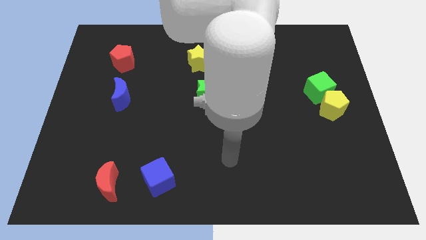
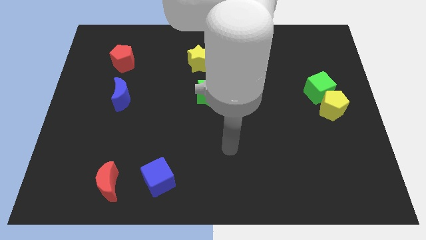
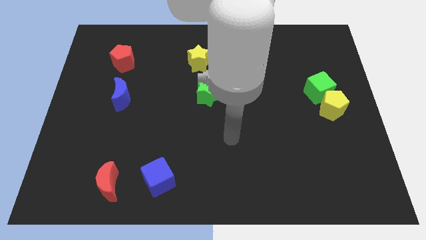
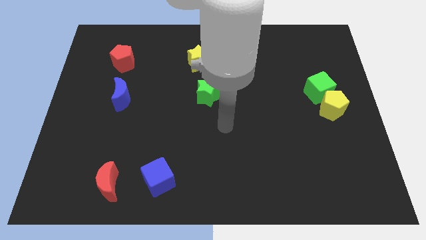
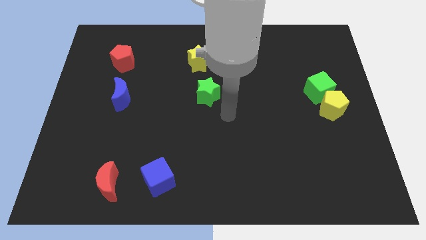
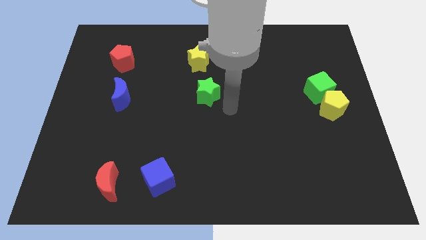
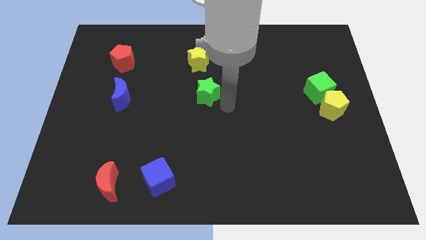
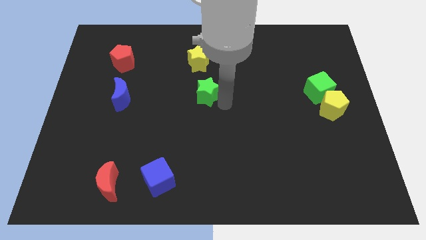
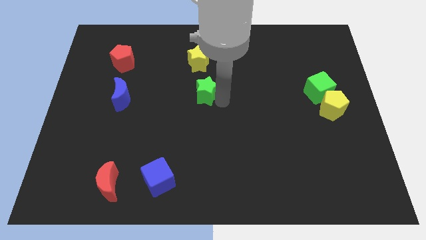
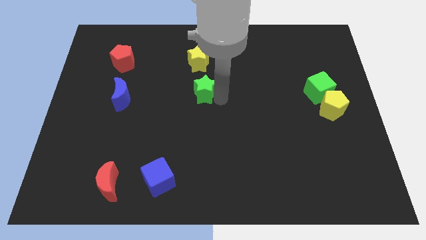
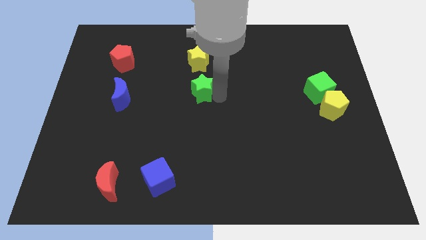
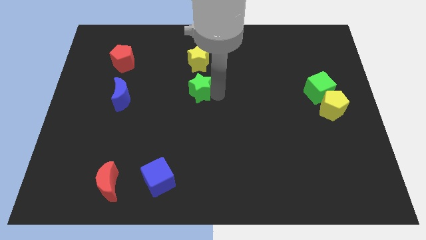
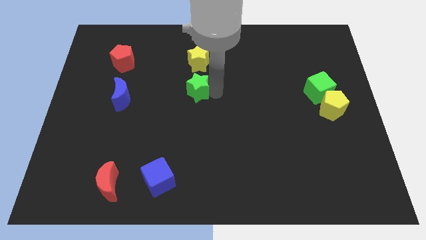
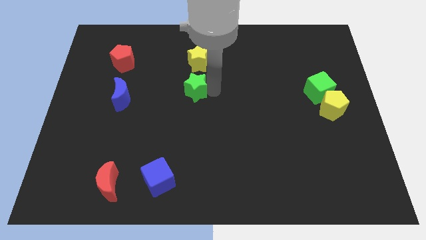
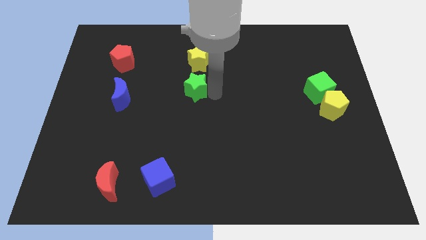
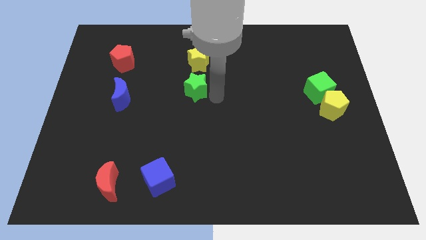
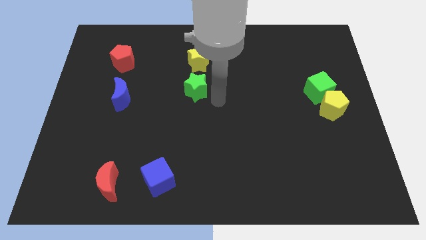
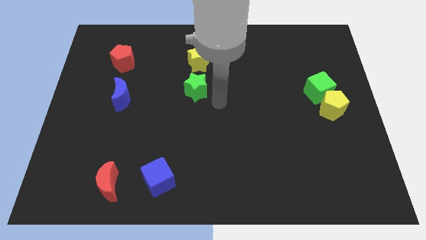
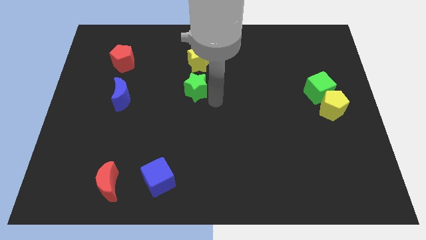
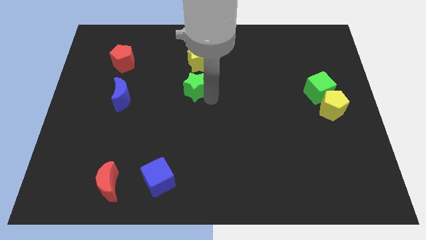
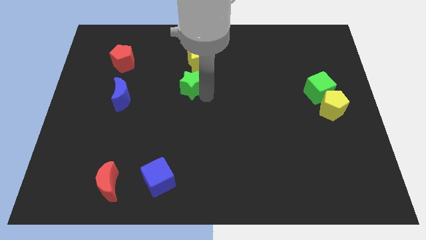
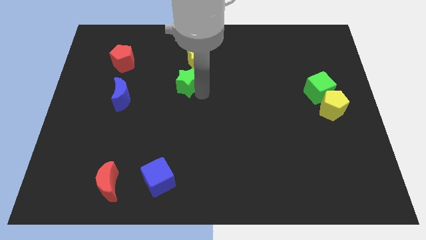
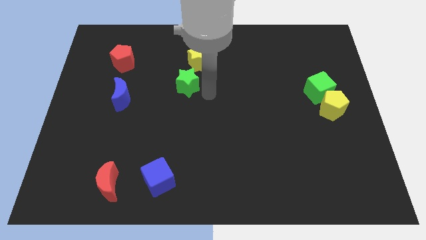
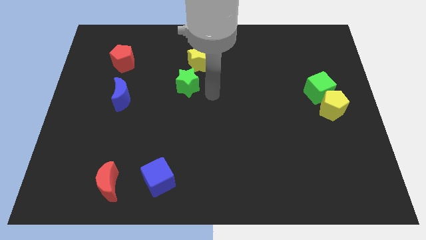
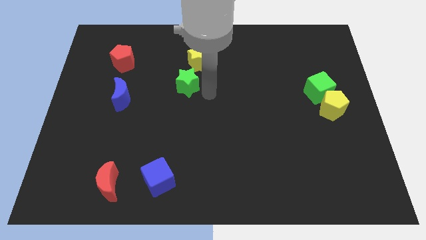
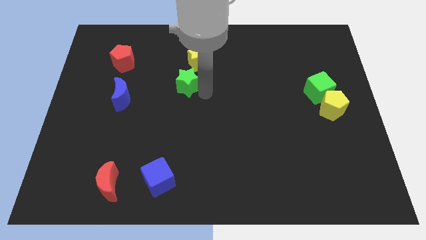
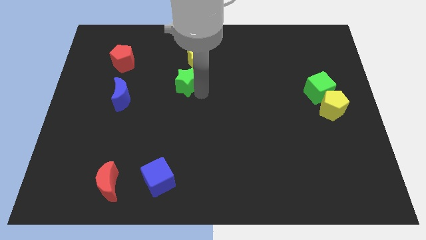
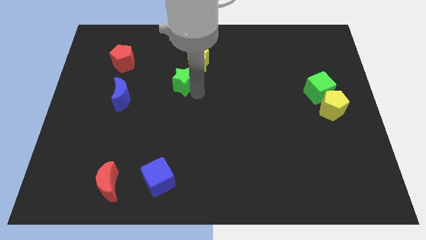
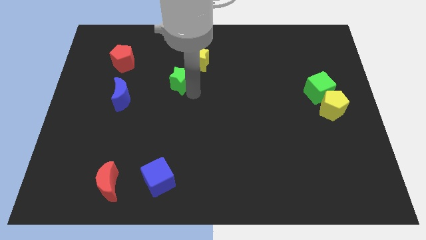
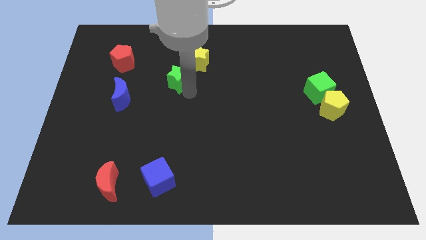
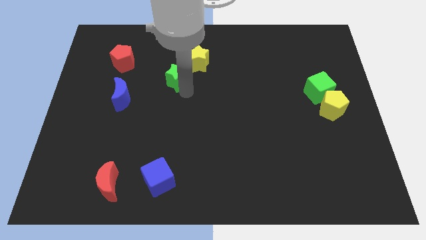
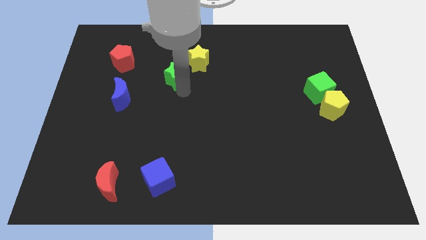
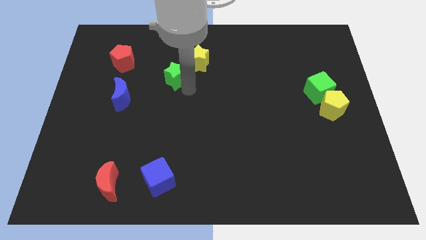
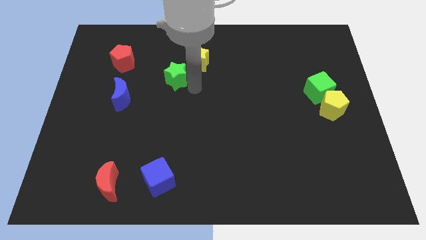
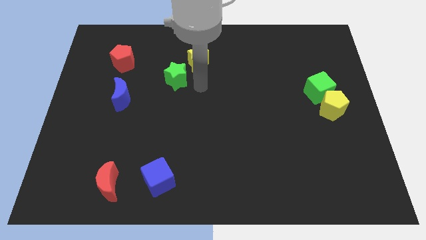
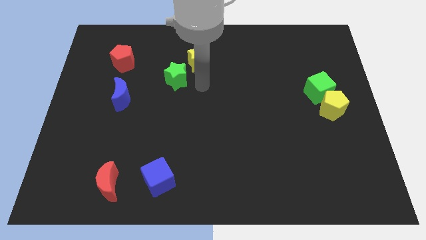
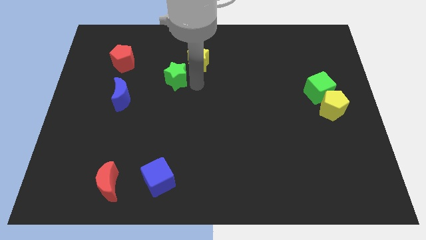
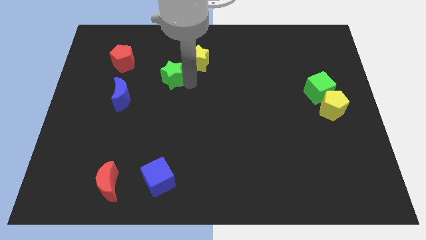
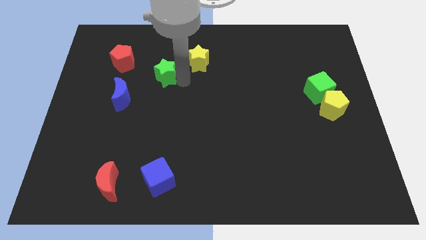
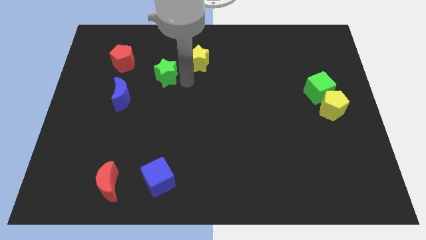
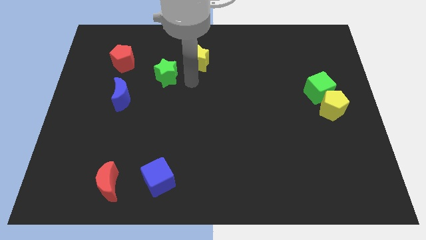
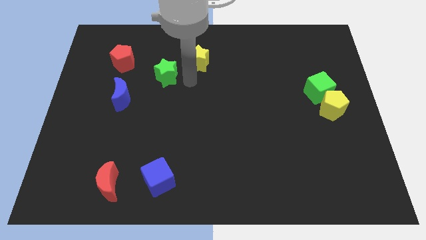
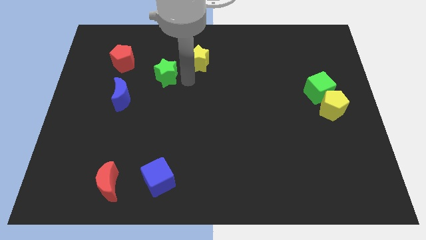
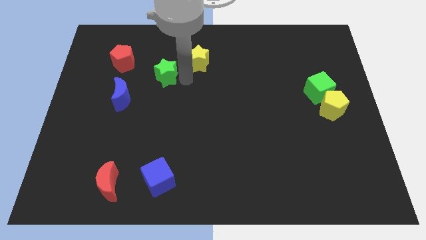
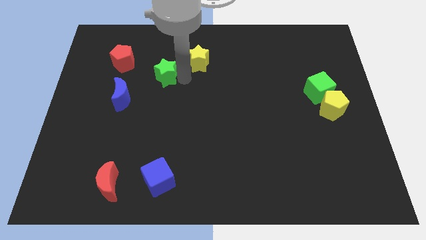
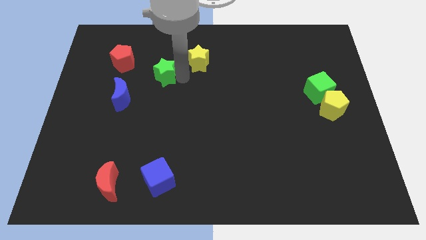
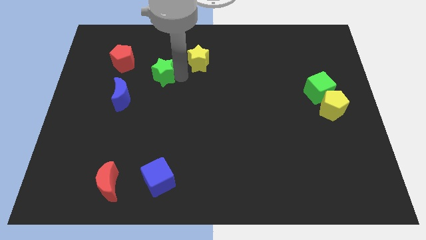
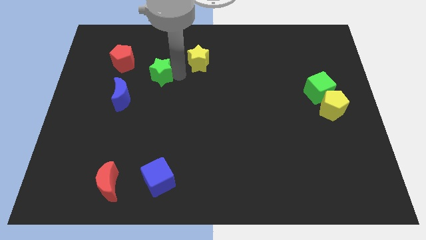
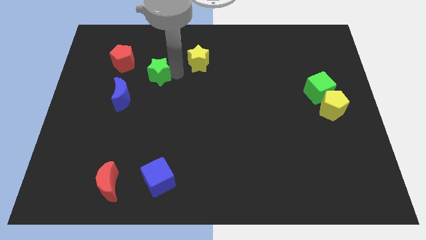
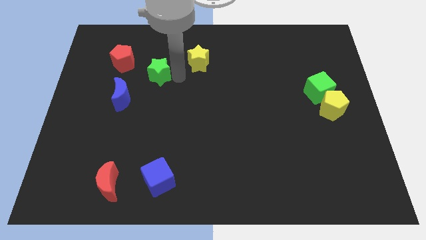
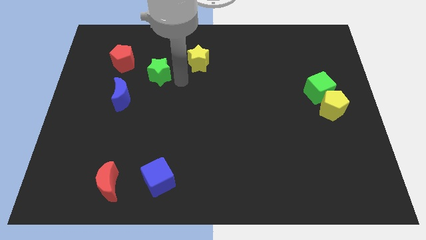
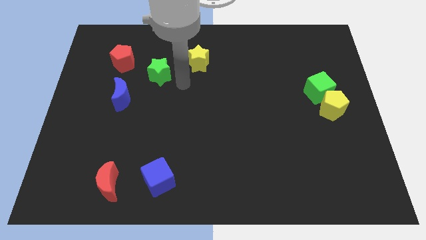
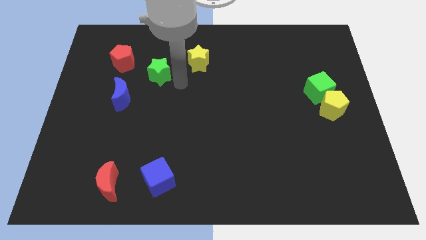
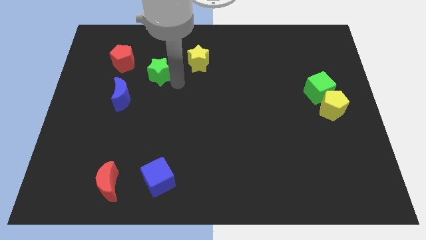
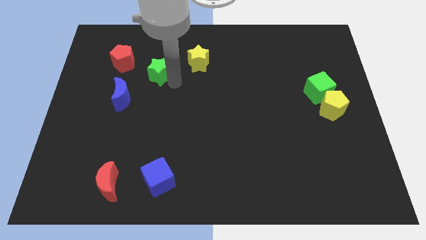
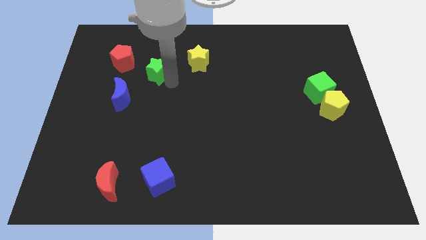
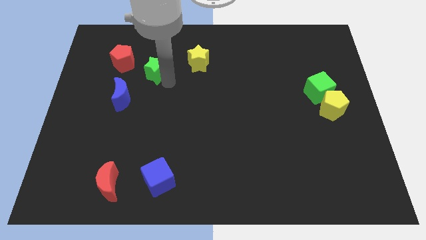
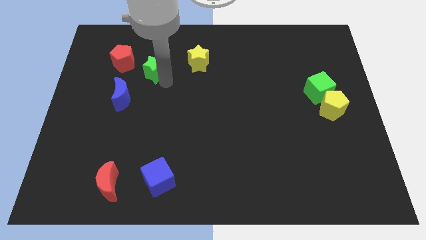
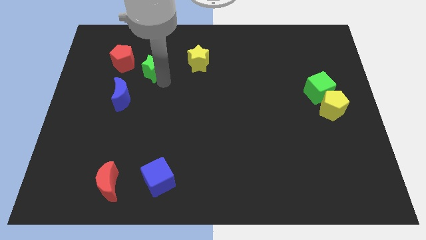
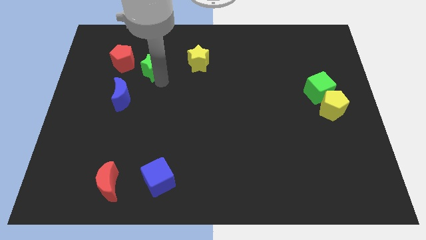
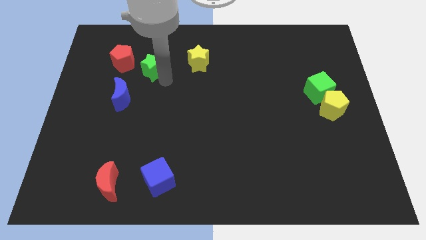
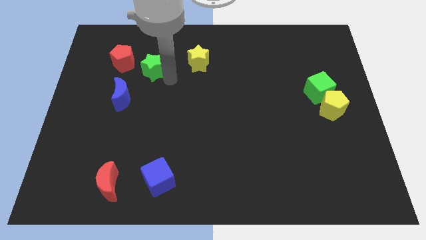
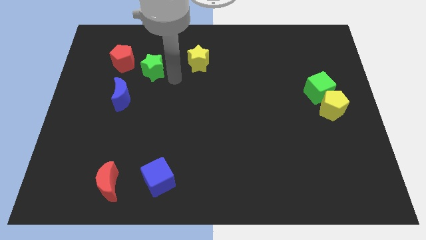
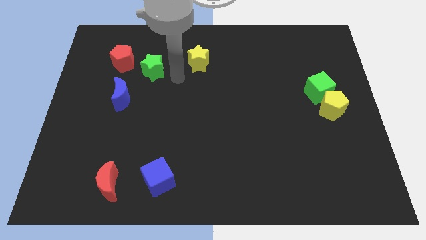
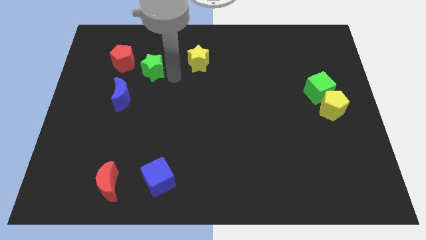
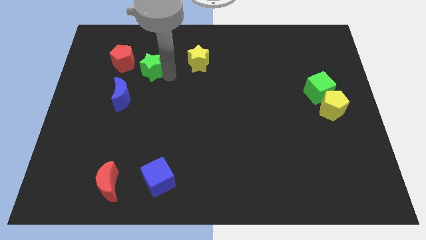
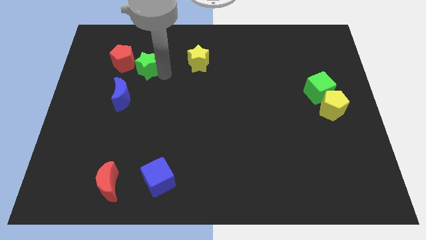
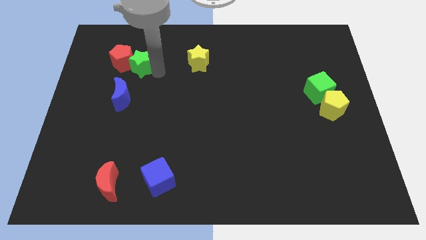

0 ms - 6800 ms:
move the green star towards the red pentagon

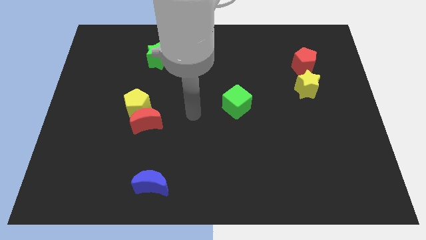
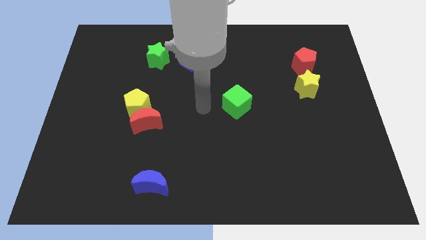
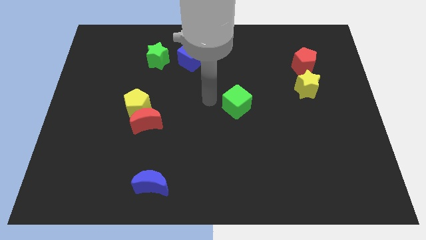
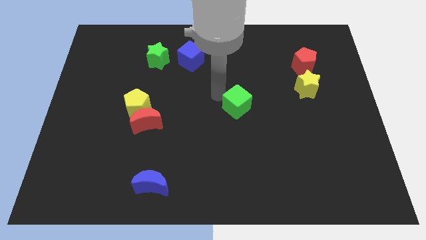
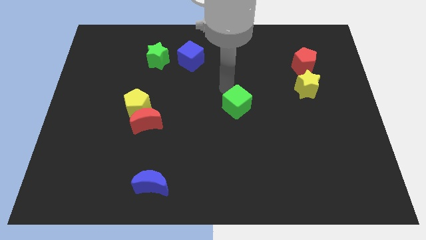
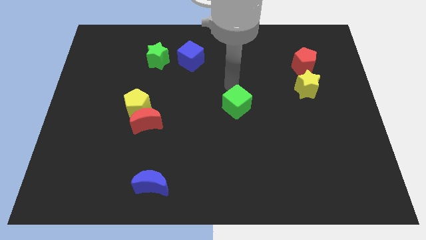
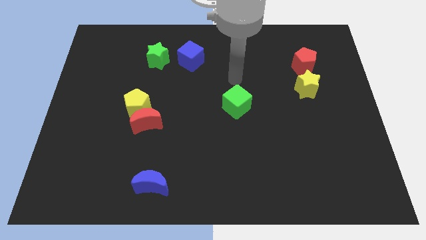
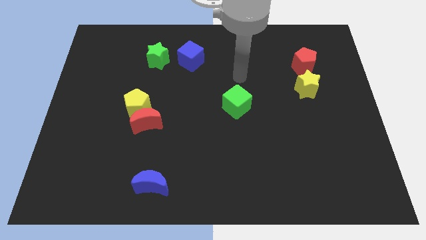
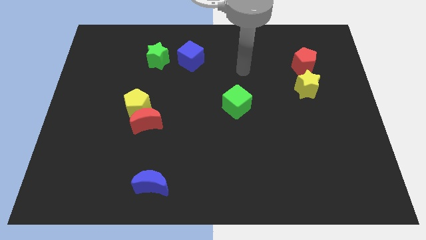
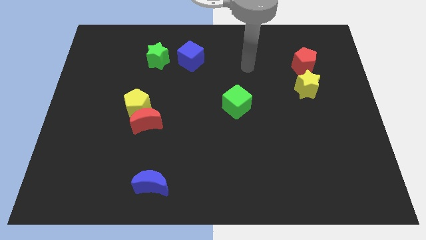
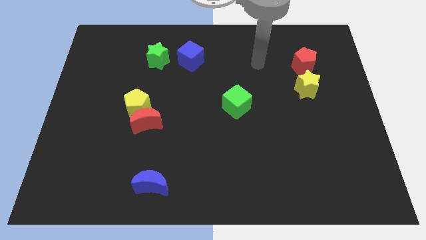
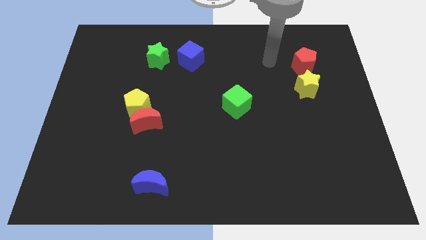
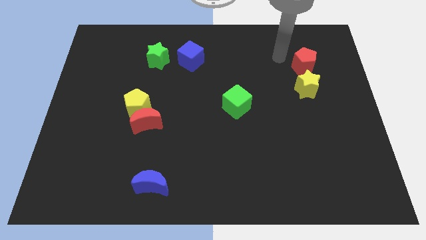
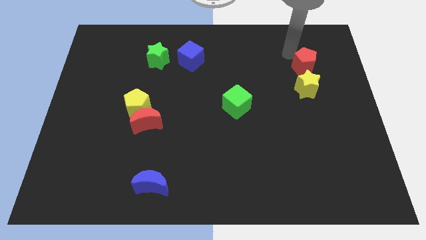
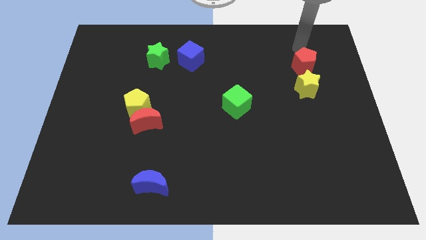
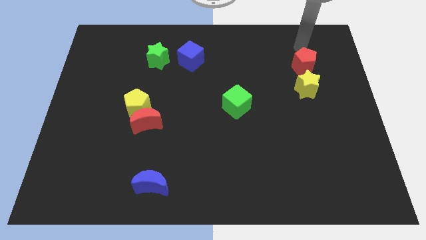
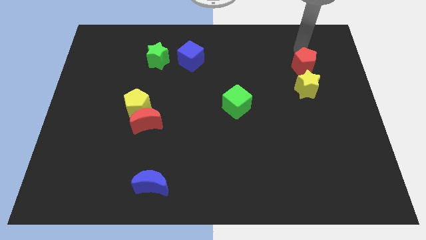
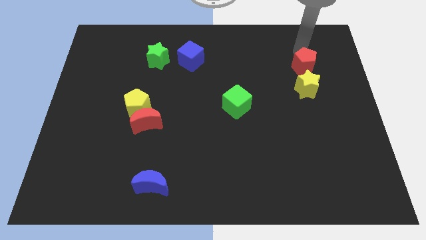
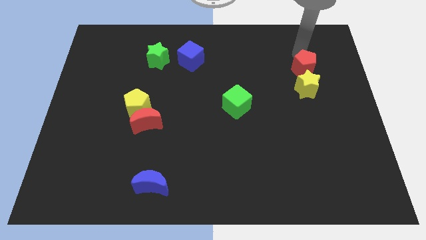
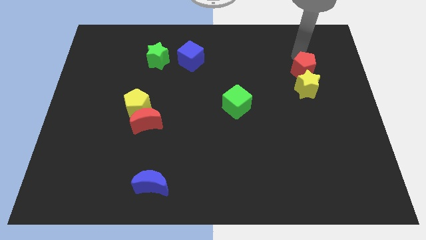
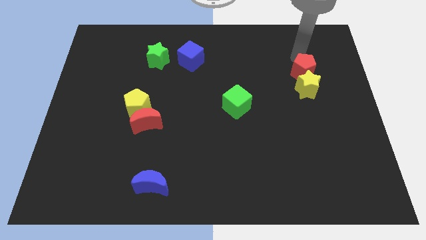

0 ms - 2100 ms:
move the red pentagon next to the yellow star
